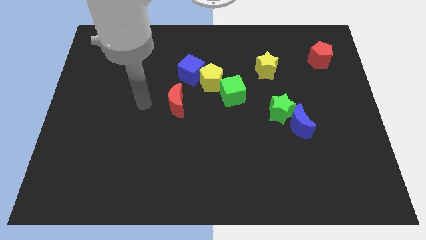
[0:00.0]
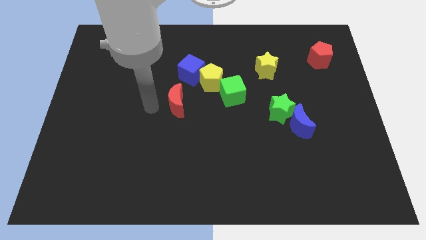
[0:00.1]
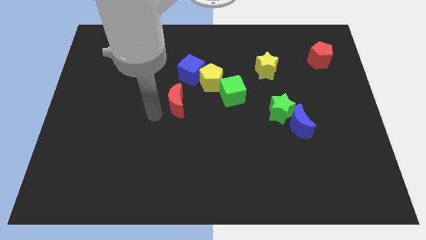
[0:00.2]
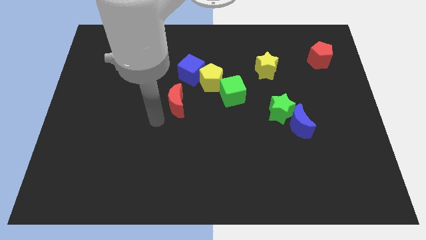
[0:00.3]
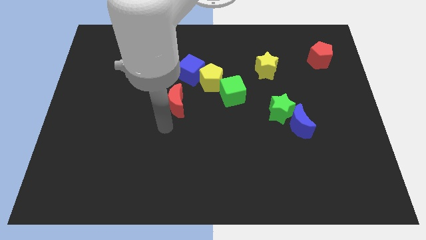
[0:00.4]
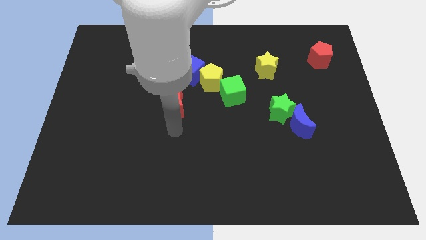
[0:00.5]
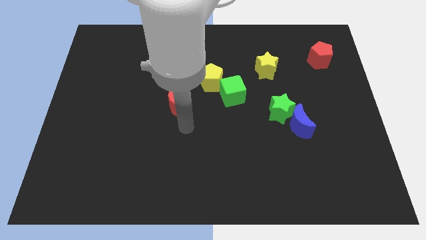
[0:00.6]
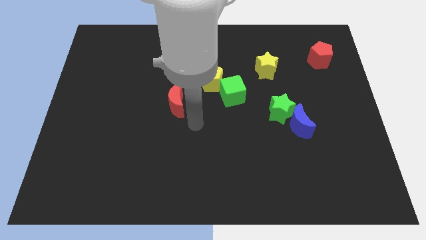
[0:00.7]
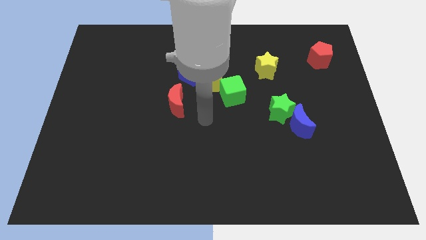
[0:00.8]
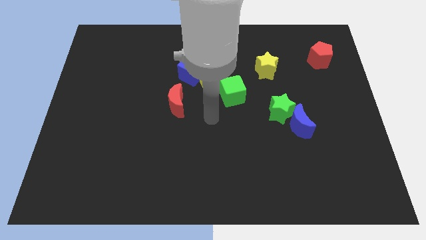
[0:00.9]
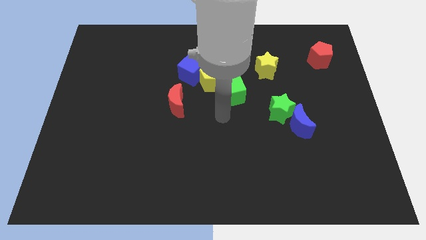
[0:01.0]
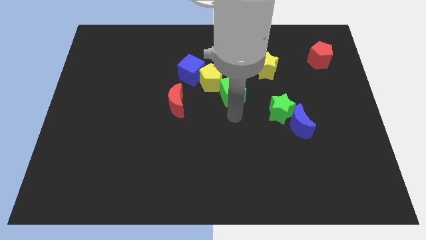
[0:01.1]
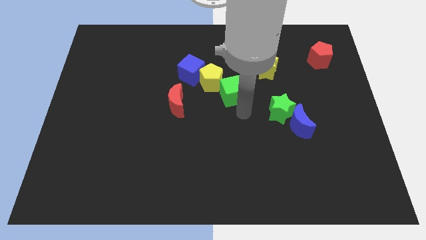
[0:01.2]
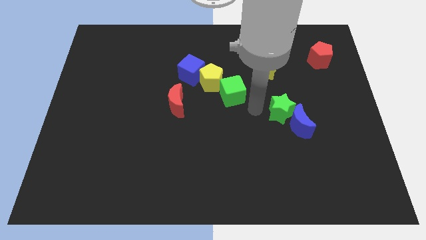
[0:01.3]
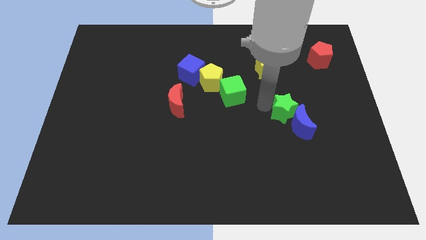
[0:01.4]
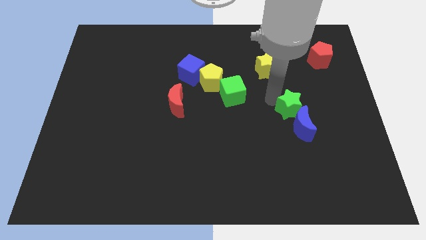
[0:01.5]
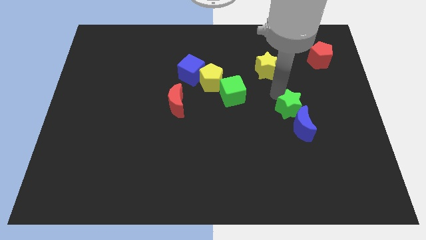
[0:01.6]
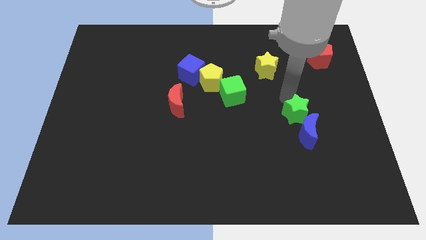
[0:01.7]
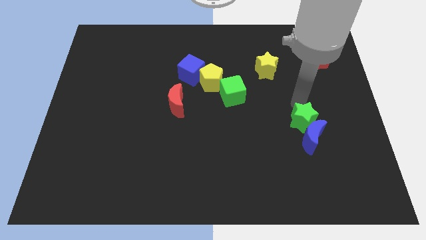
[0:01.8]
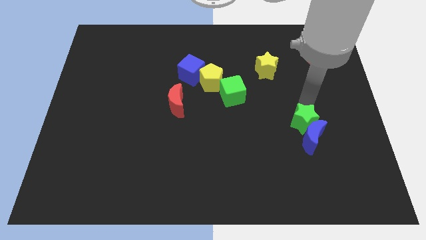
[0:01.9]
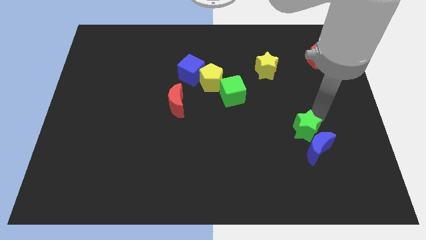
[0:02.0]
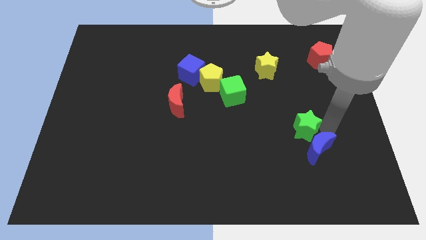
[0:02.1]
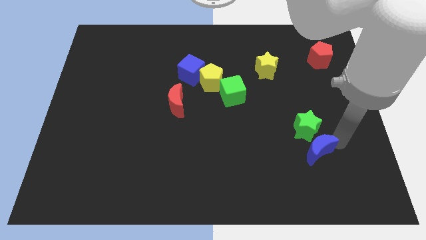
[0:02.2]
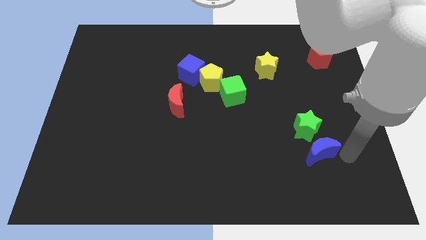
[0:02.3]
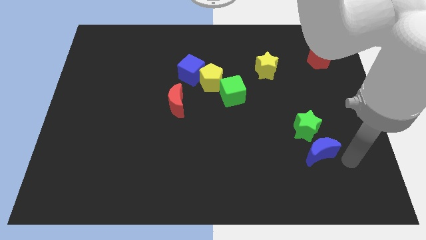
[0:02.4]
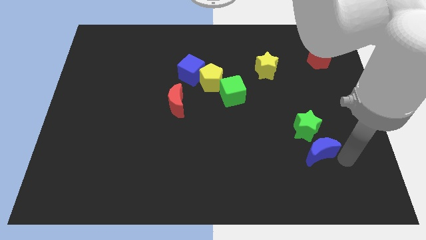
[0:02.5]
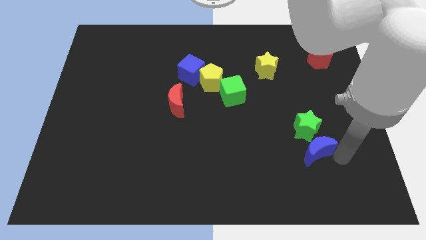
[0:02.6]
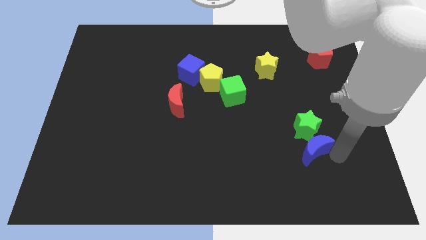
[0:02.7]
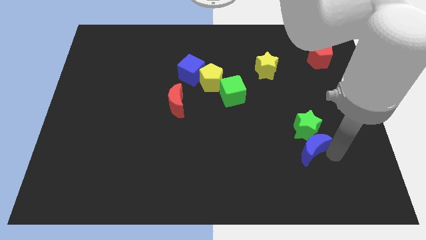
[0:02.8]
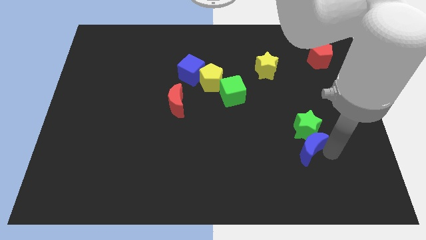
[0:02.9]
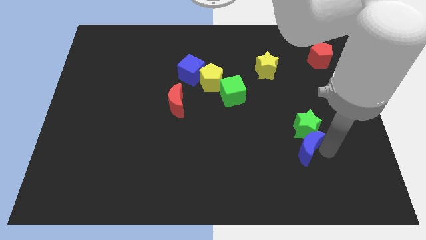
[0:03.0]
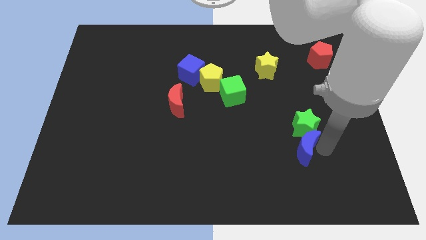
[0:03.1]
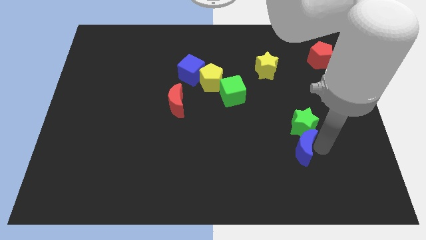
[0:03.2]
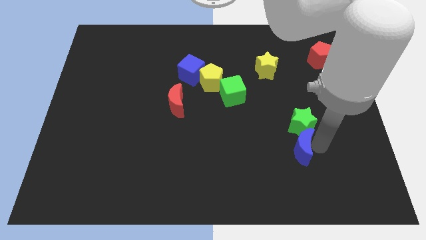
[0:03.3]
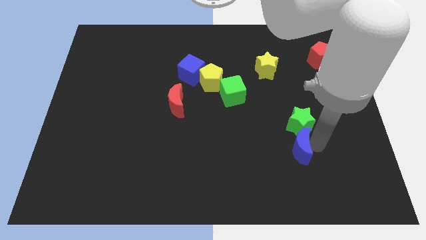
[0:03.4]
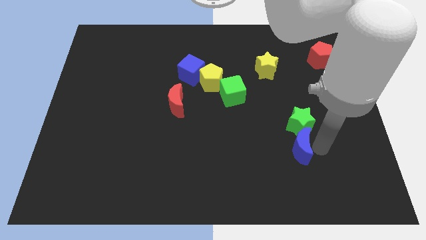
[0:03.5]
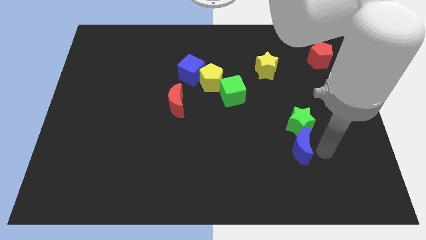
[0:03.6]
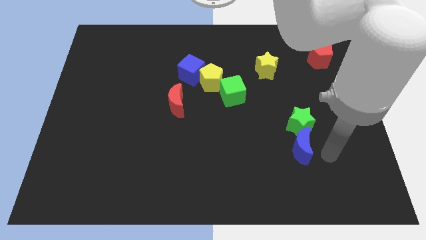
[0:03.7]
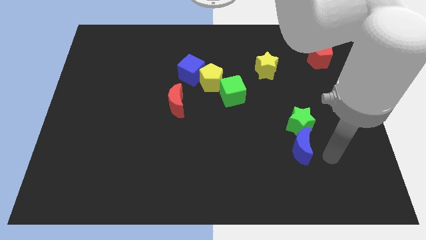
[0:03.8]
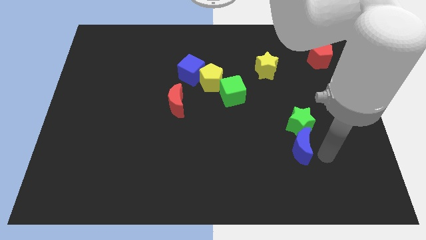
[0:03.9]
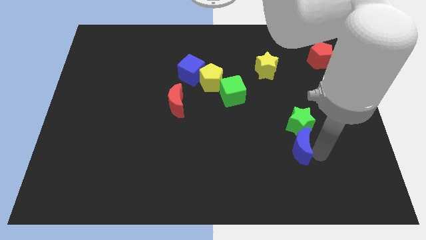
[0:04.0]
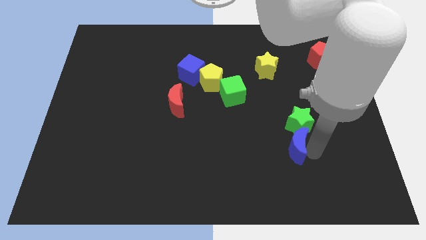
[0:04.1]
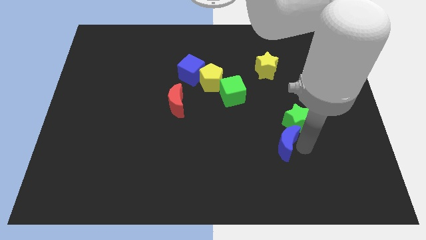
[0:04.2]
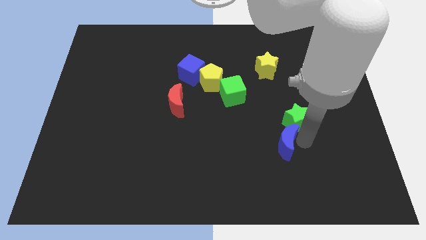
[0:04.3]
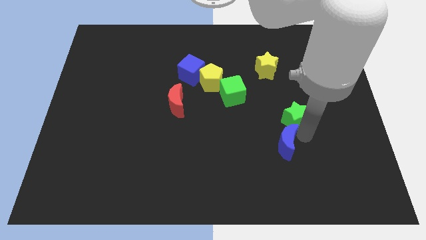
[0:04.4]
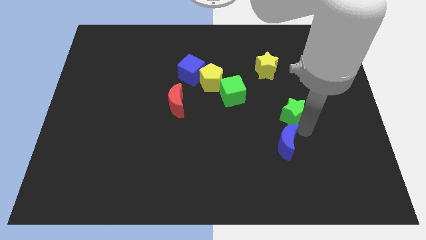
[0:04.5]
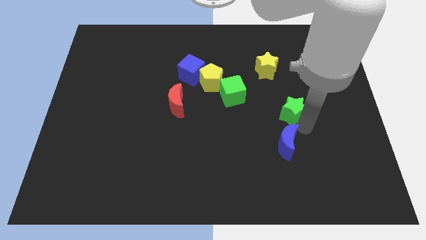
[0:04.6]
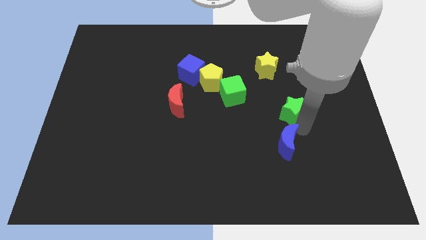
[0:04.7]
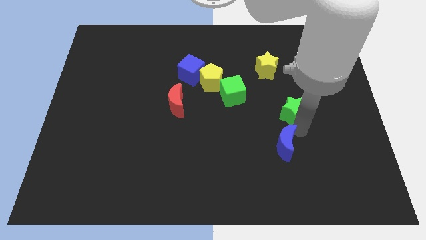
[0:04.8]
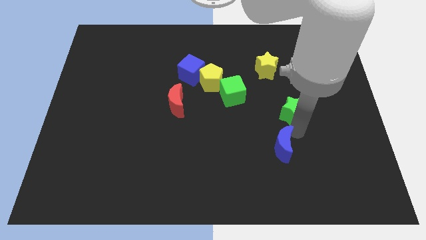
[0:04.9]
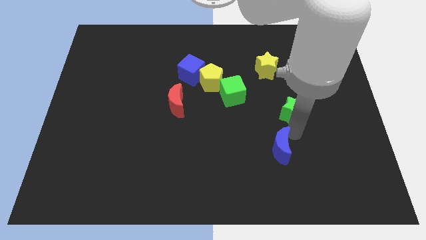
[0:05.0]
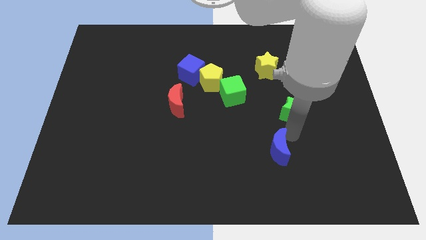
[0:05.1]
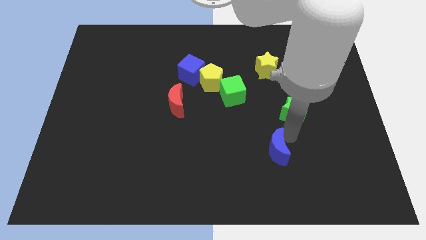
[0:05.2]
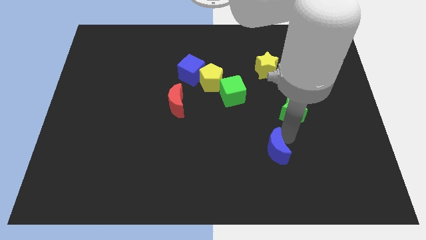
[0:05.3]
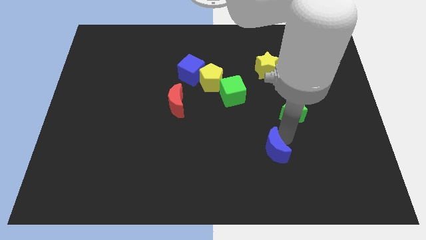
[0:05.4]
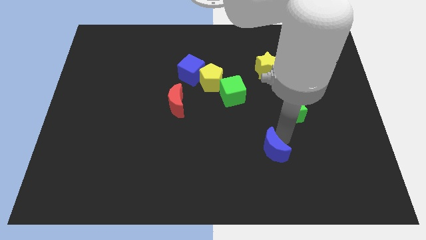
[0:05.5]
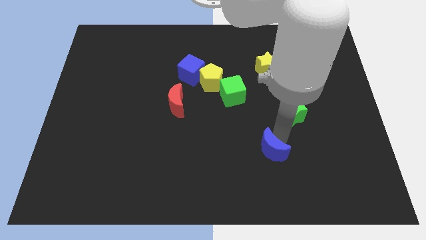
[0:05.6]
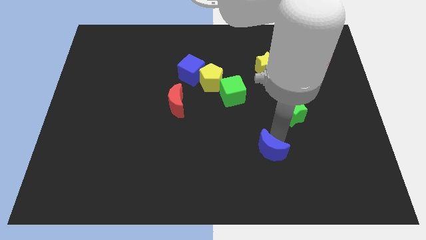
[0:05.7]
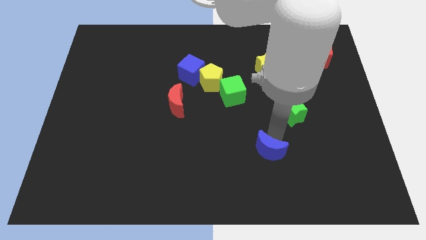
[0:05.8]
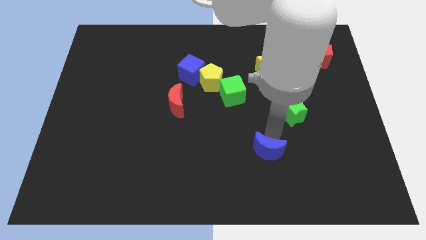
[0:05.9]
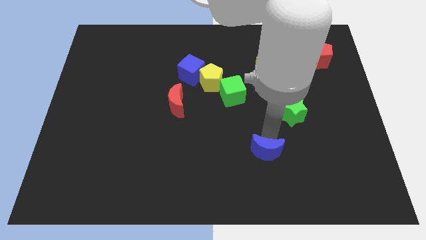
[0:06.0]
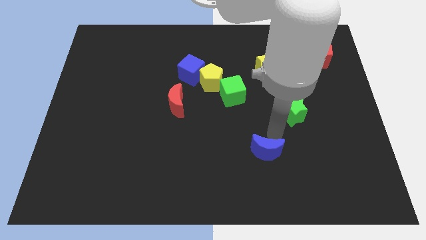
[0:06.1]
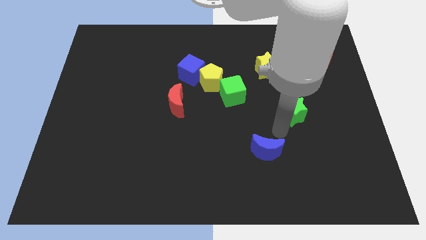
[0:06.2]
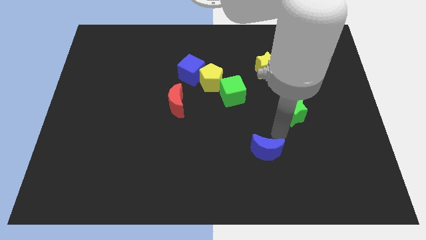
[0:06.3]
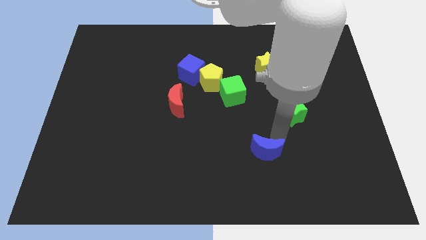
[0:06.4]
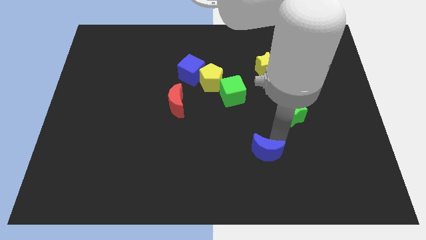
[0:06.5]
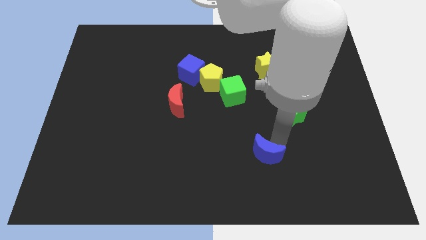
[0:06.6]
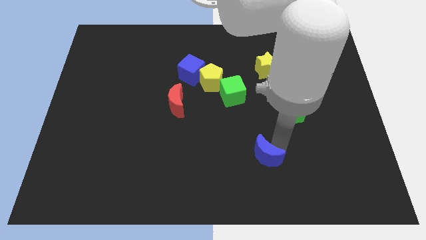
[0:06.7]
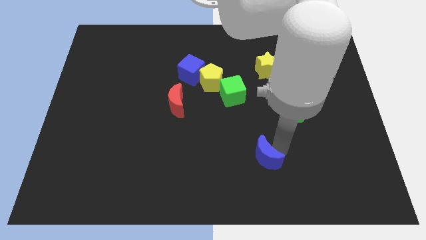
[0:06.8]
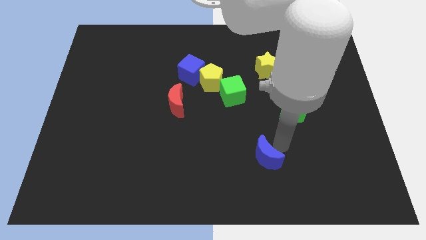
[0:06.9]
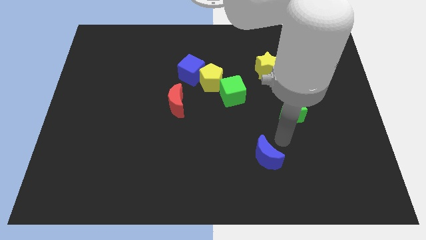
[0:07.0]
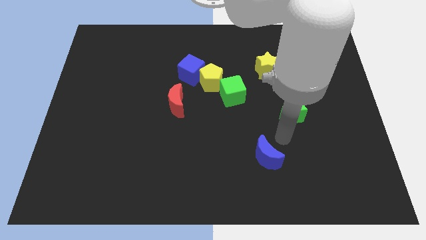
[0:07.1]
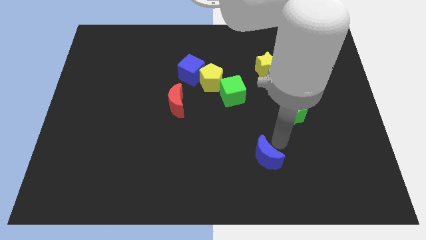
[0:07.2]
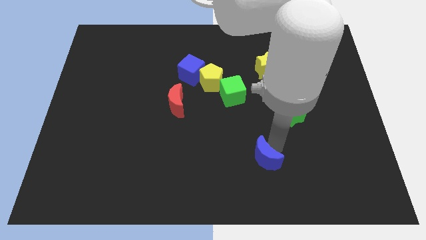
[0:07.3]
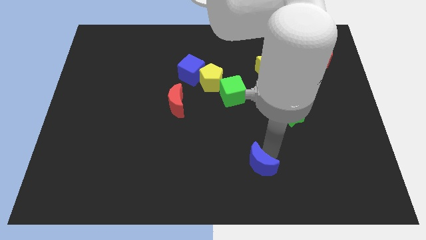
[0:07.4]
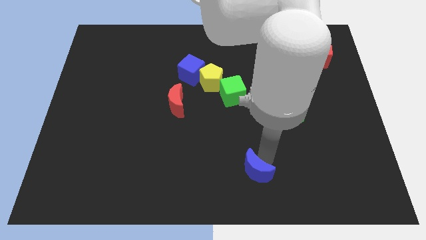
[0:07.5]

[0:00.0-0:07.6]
move the blue moon to the bottom
